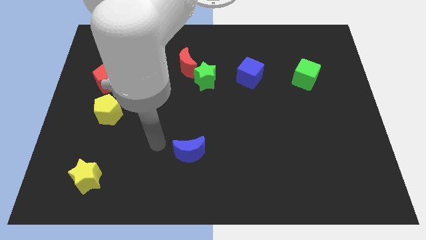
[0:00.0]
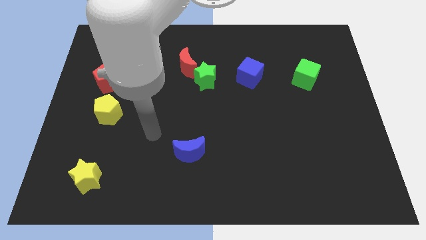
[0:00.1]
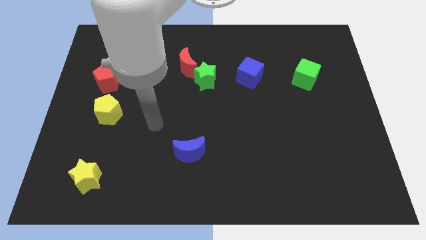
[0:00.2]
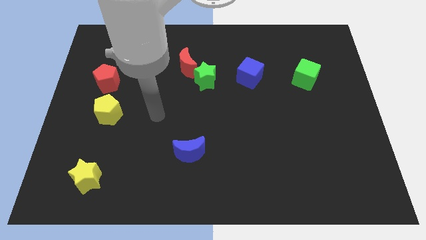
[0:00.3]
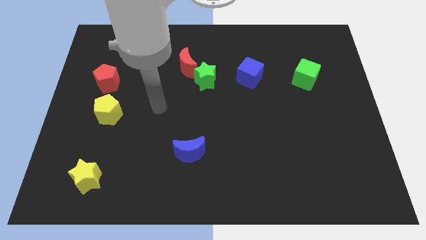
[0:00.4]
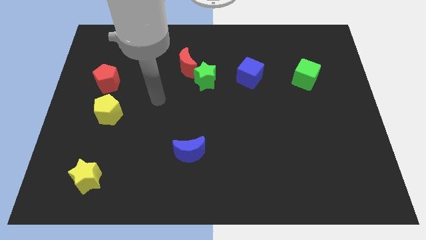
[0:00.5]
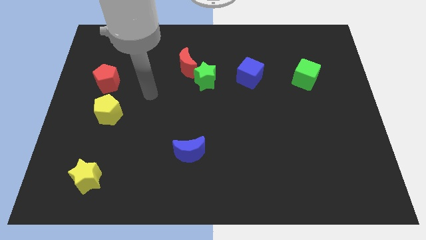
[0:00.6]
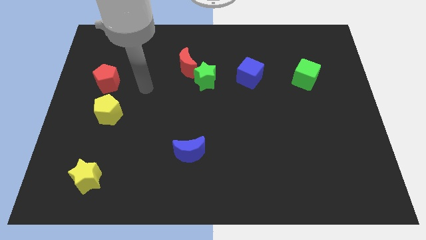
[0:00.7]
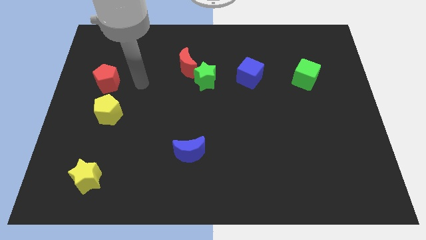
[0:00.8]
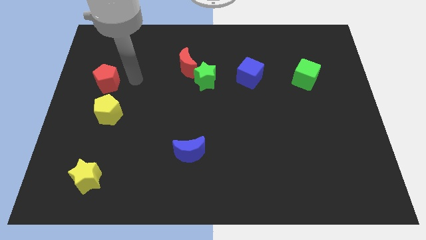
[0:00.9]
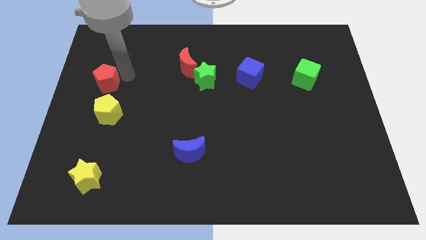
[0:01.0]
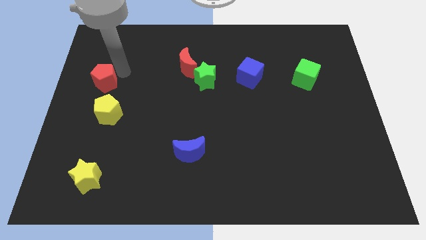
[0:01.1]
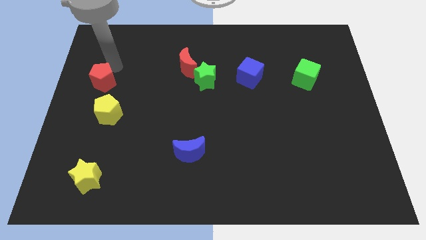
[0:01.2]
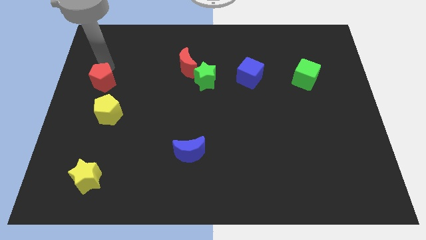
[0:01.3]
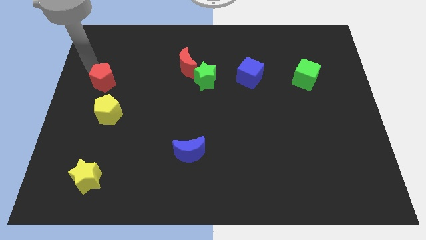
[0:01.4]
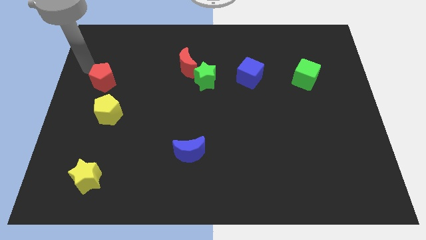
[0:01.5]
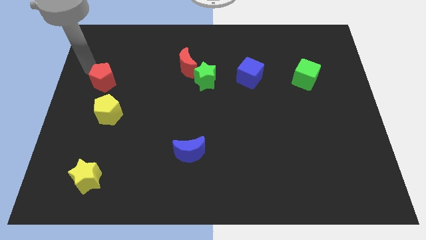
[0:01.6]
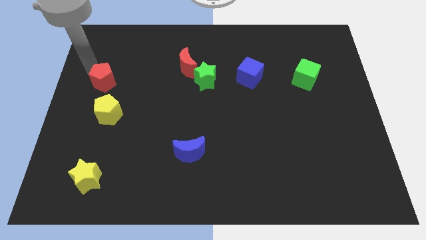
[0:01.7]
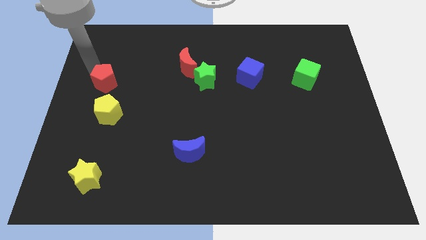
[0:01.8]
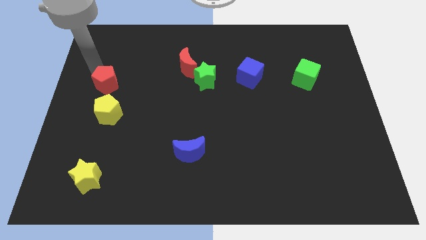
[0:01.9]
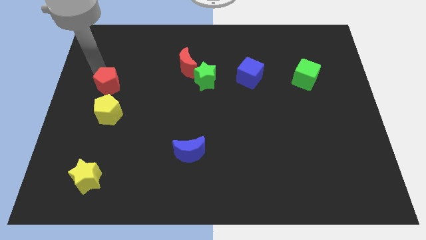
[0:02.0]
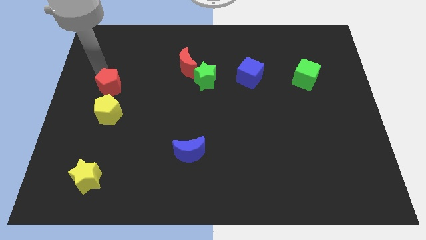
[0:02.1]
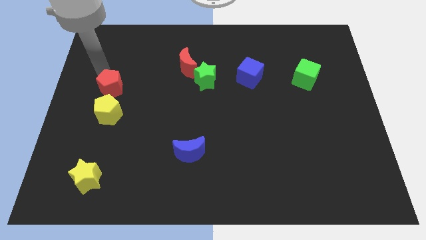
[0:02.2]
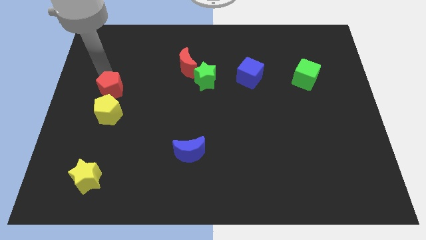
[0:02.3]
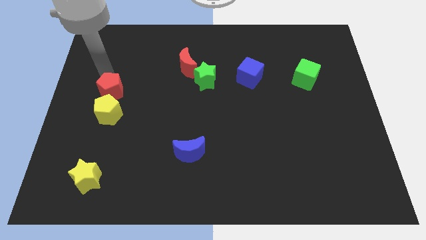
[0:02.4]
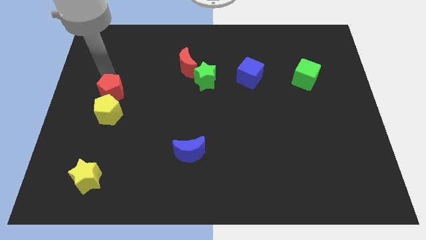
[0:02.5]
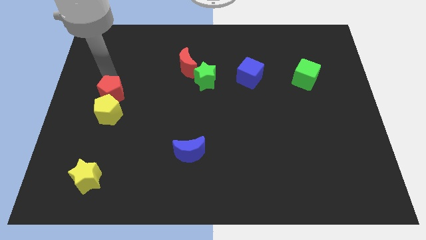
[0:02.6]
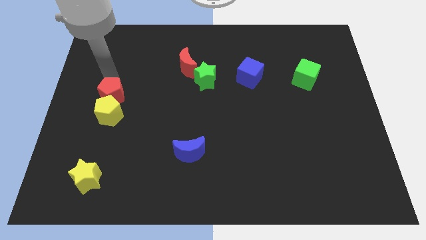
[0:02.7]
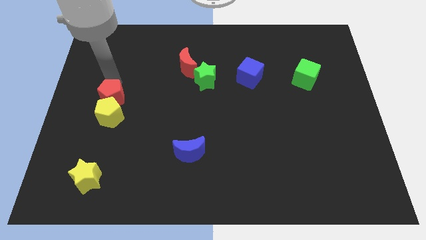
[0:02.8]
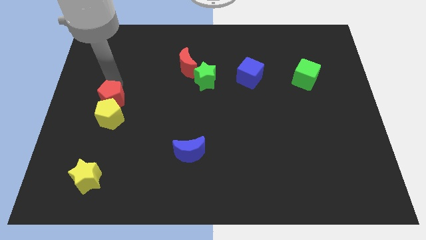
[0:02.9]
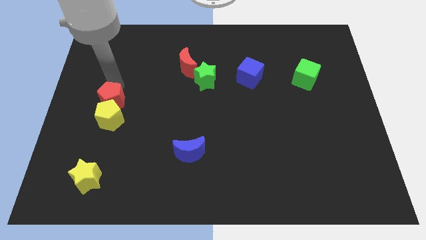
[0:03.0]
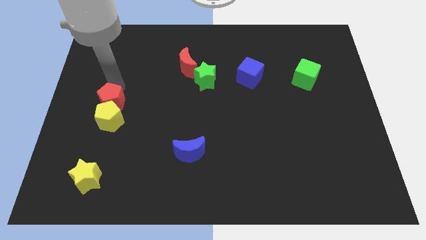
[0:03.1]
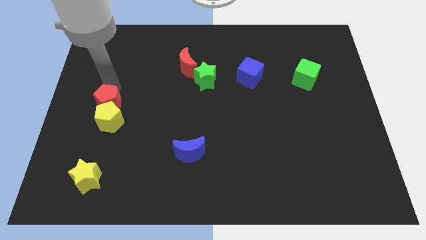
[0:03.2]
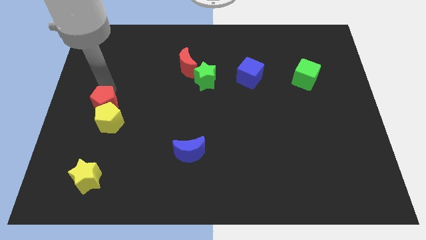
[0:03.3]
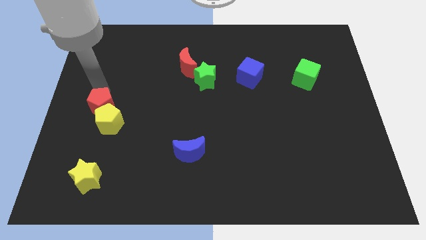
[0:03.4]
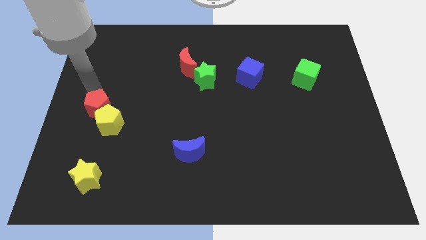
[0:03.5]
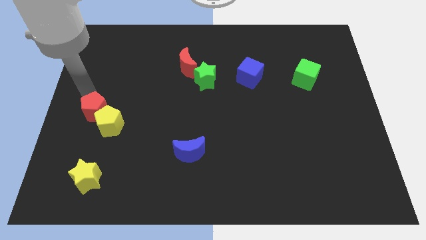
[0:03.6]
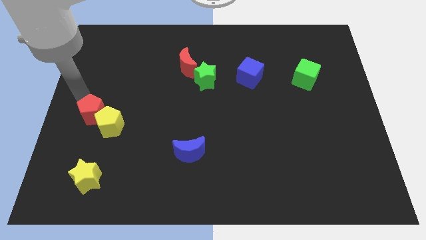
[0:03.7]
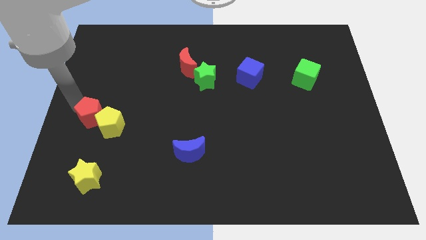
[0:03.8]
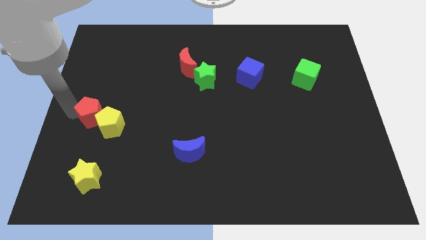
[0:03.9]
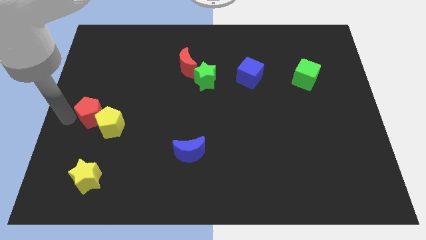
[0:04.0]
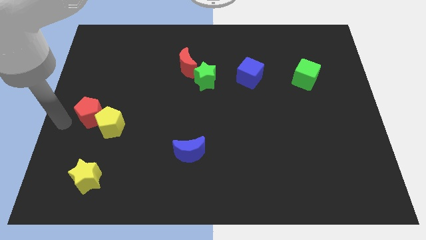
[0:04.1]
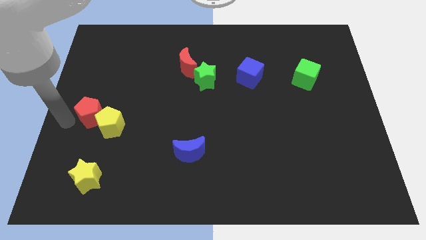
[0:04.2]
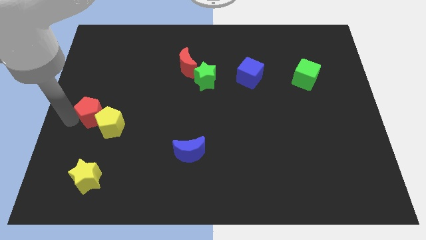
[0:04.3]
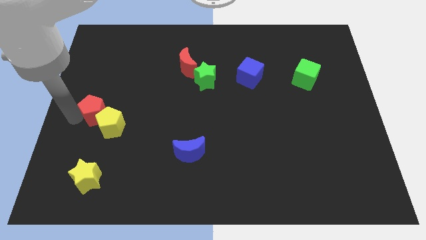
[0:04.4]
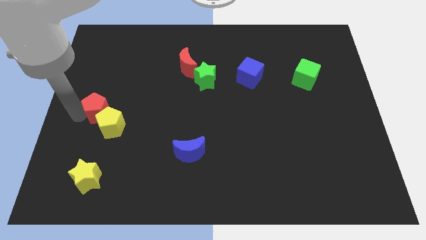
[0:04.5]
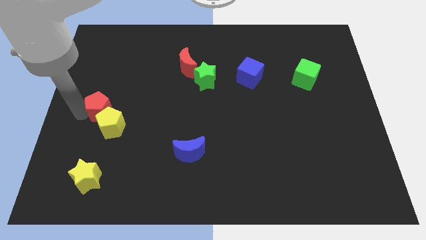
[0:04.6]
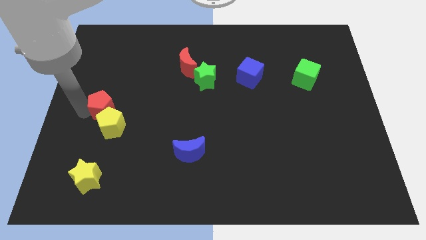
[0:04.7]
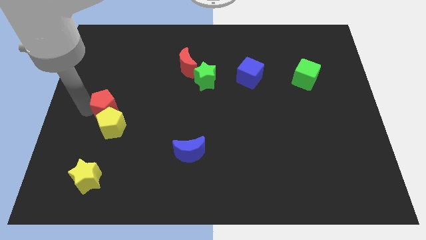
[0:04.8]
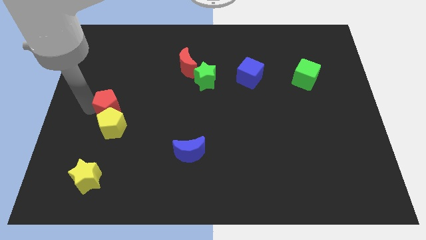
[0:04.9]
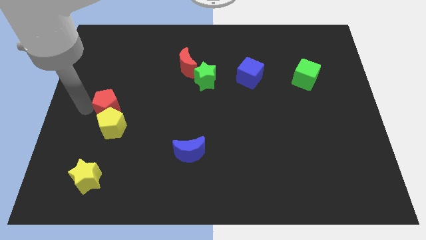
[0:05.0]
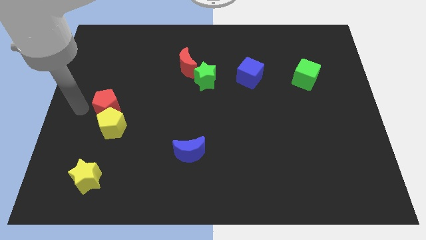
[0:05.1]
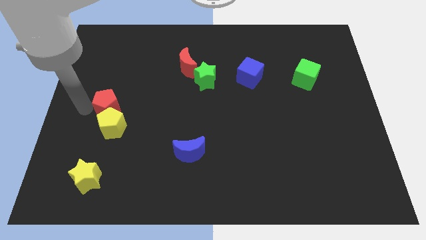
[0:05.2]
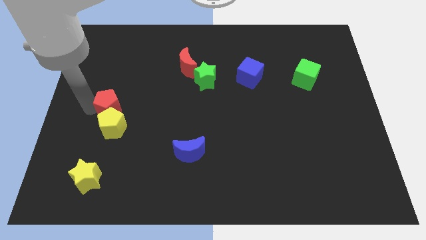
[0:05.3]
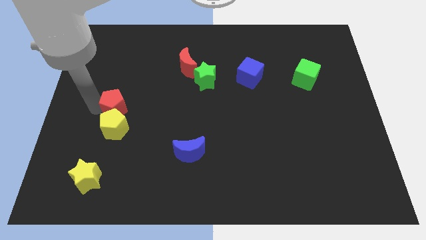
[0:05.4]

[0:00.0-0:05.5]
slightly push the red pentagon downwards and then to the right

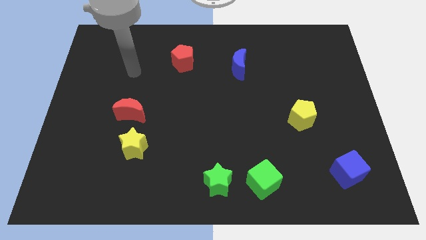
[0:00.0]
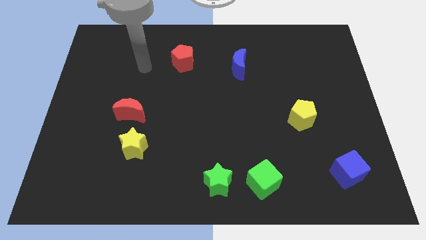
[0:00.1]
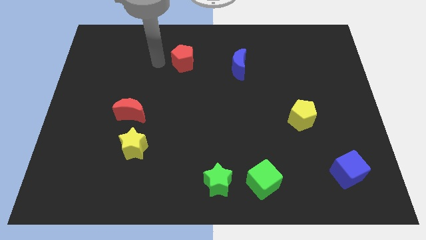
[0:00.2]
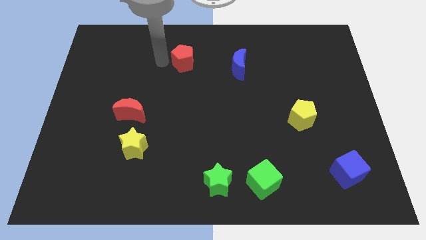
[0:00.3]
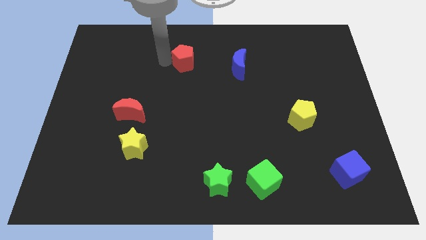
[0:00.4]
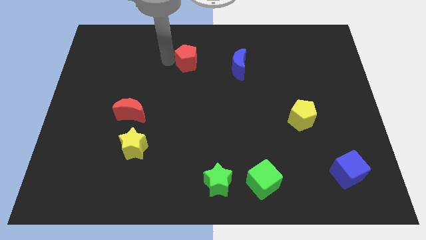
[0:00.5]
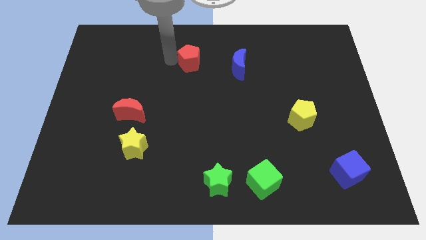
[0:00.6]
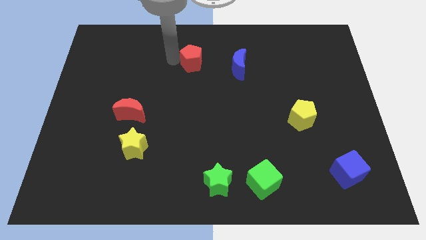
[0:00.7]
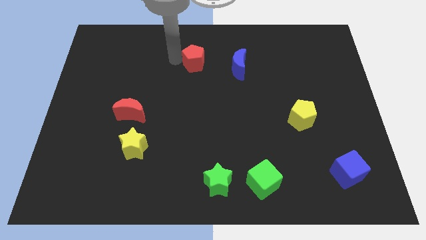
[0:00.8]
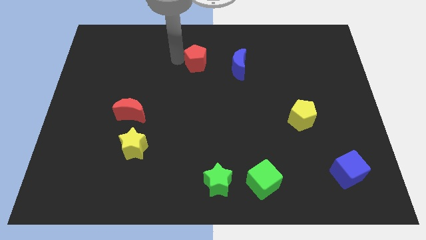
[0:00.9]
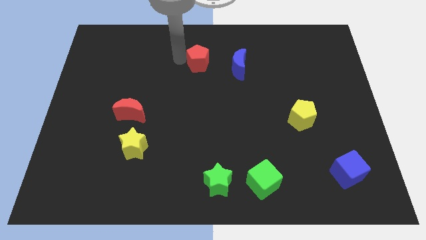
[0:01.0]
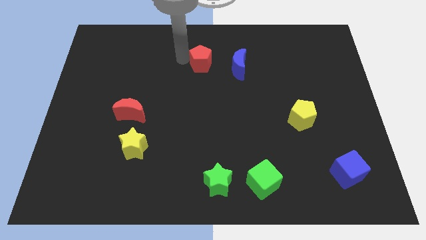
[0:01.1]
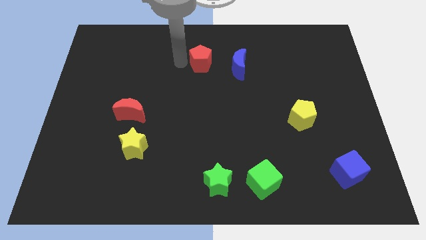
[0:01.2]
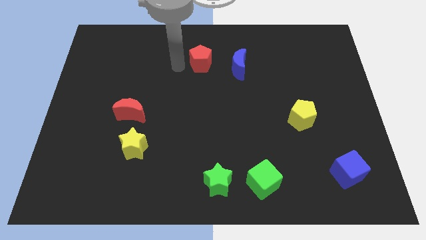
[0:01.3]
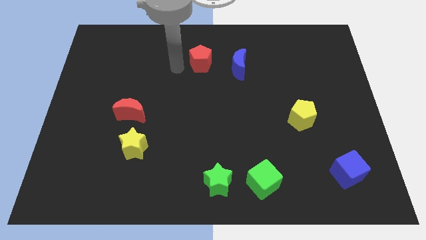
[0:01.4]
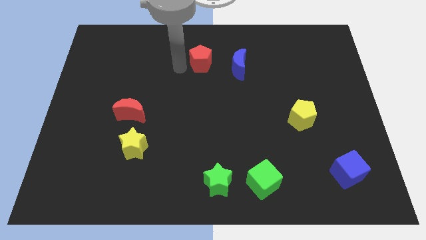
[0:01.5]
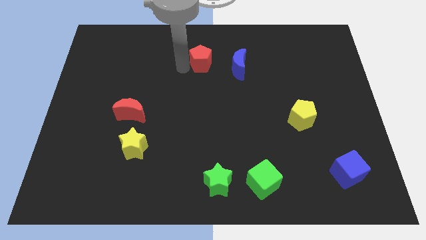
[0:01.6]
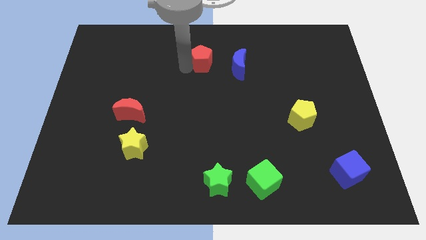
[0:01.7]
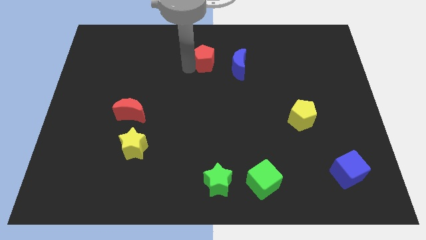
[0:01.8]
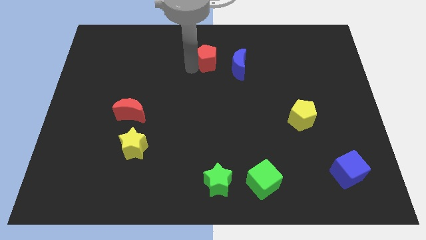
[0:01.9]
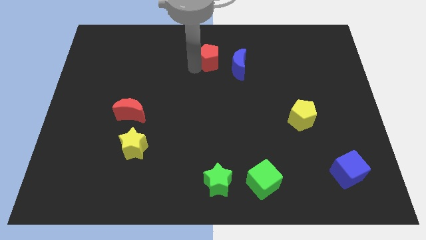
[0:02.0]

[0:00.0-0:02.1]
slightly push the red pentagon to the right

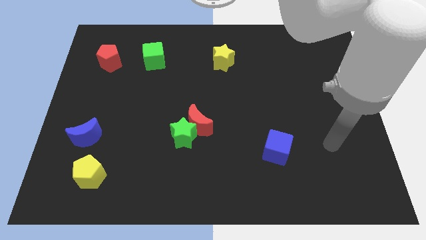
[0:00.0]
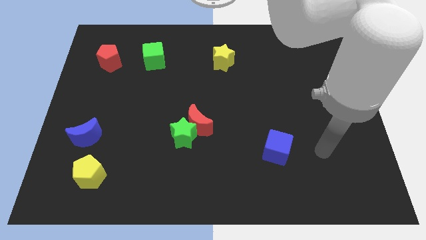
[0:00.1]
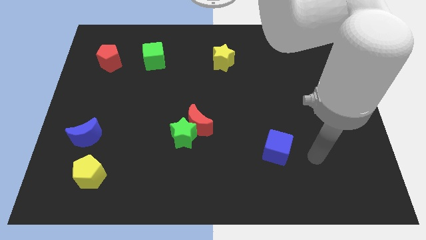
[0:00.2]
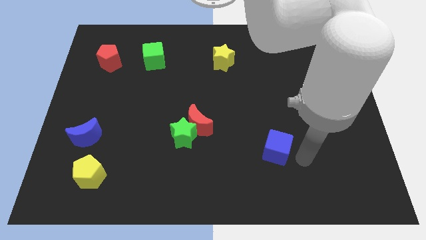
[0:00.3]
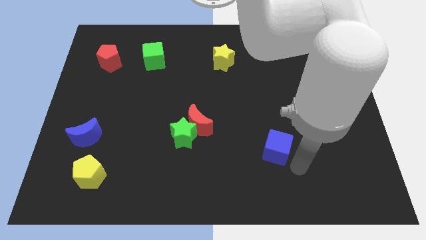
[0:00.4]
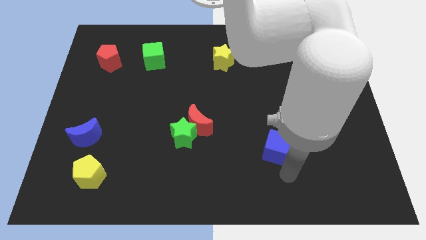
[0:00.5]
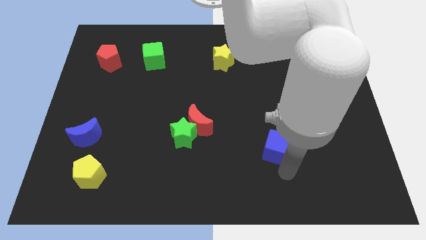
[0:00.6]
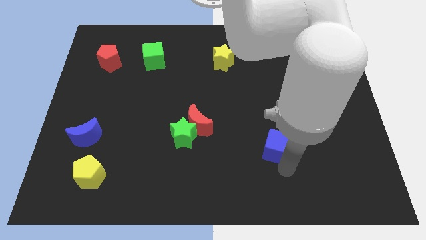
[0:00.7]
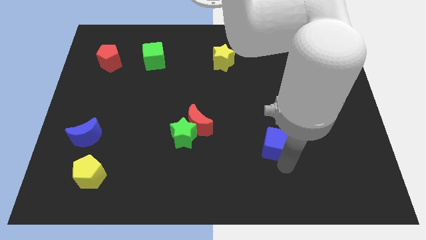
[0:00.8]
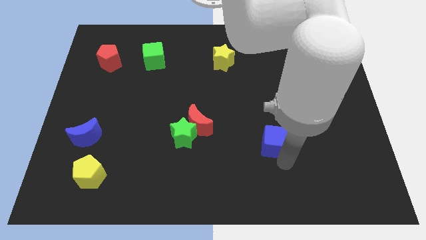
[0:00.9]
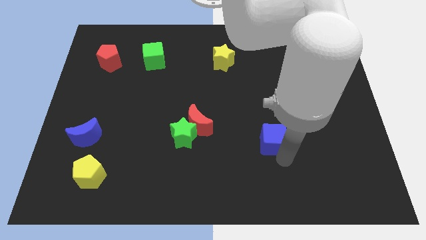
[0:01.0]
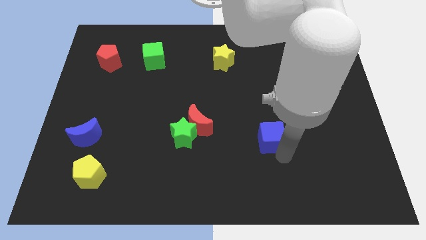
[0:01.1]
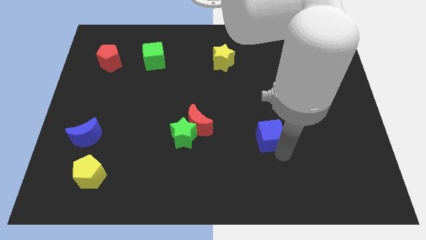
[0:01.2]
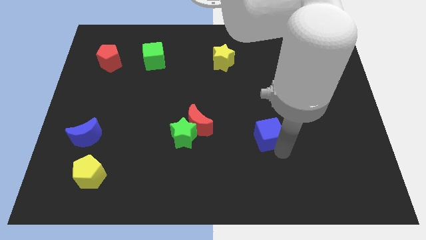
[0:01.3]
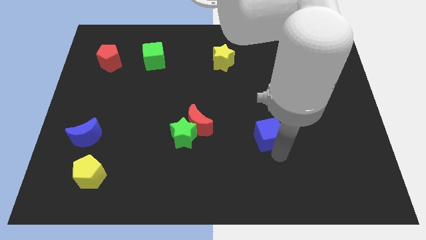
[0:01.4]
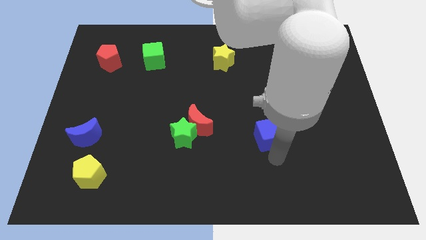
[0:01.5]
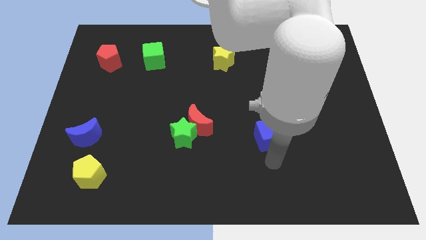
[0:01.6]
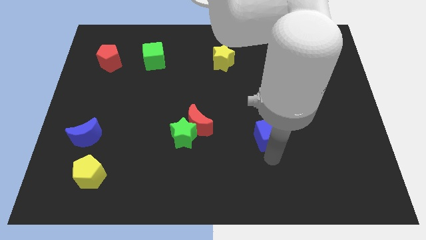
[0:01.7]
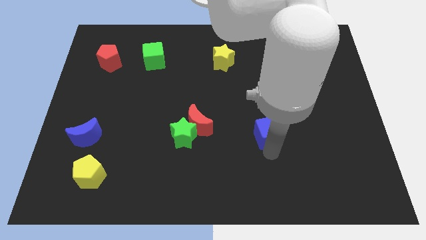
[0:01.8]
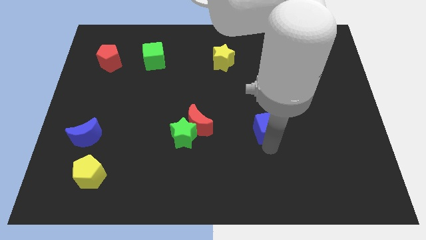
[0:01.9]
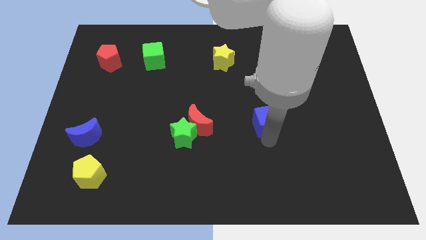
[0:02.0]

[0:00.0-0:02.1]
push the blue cube a little up
